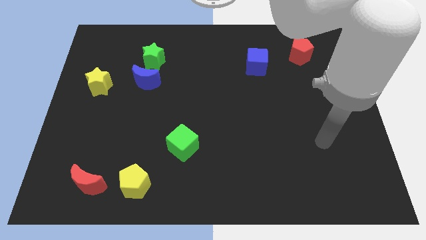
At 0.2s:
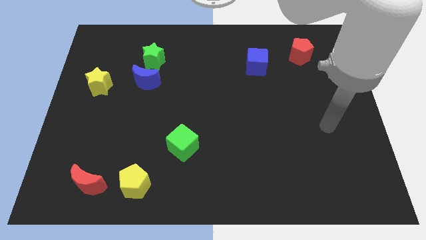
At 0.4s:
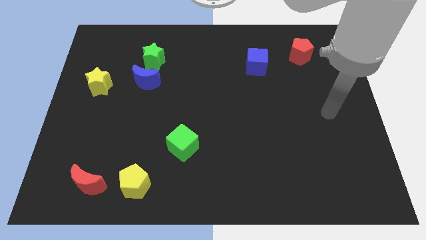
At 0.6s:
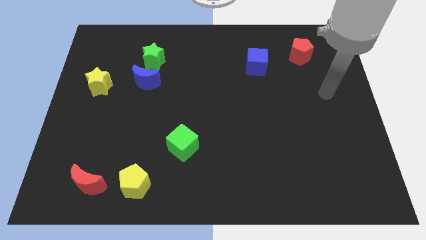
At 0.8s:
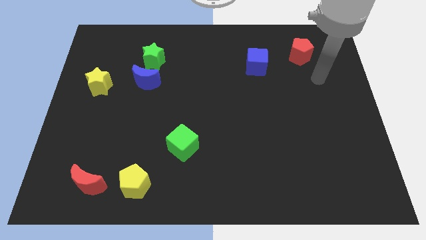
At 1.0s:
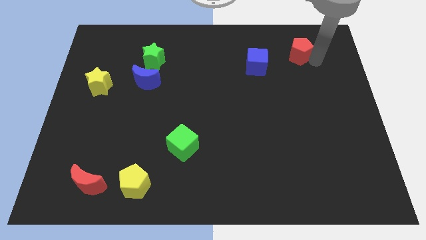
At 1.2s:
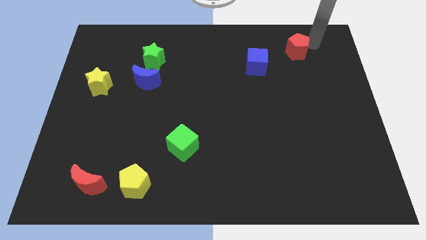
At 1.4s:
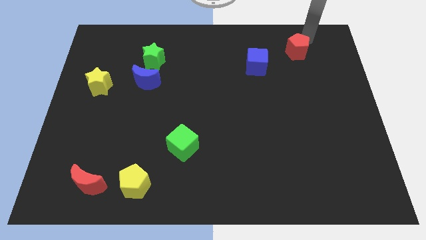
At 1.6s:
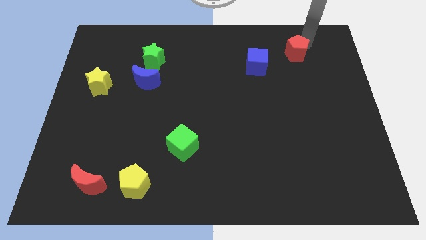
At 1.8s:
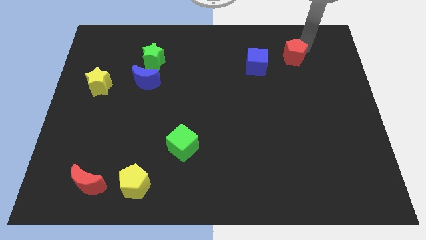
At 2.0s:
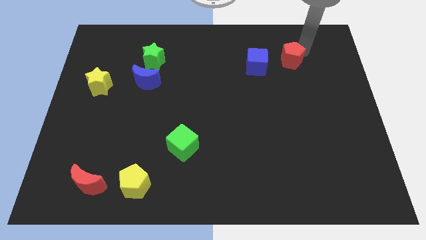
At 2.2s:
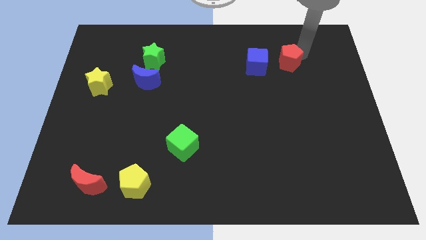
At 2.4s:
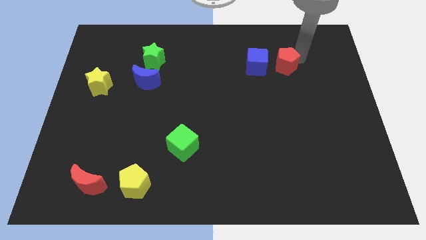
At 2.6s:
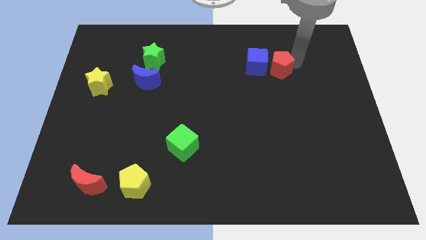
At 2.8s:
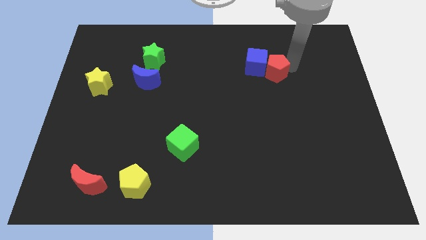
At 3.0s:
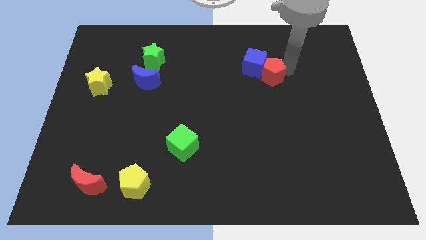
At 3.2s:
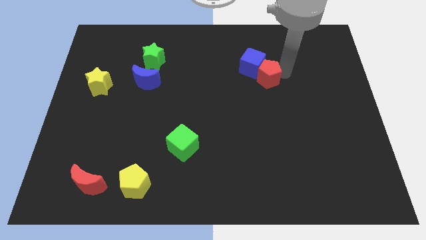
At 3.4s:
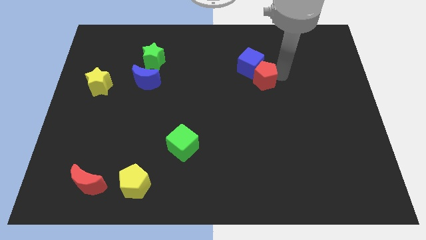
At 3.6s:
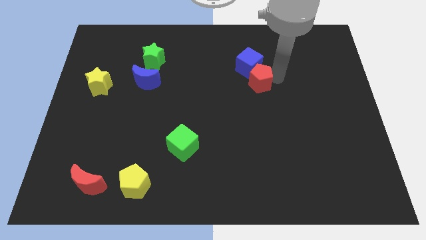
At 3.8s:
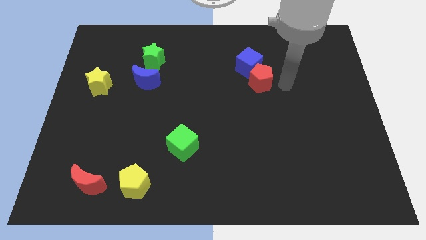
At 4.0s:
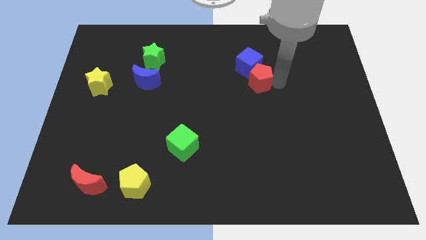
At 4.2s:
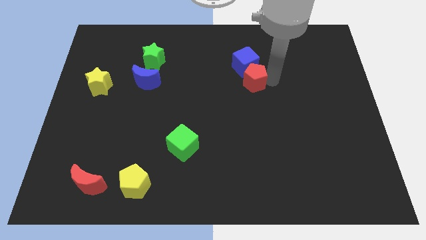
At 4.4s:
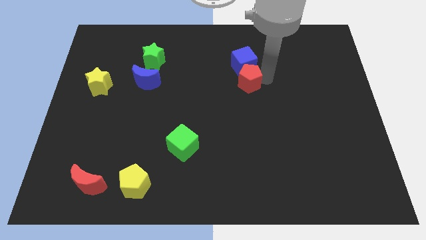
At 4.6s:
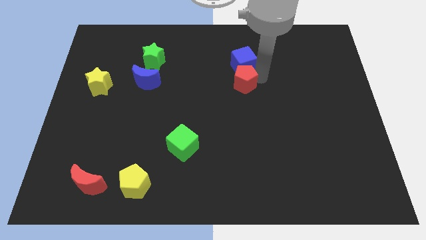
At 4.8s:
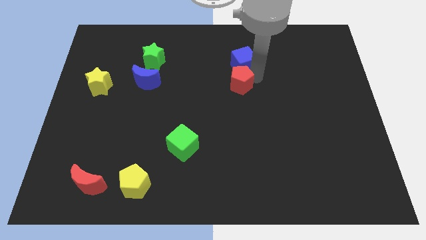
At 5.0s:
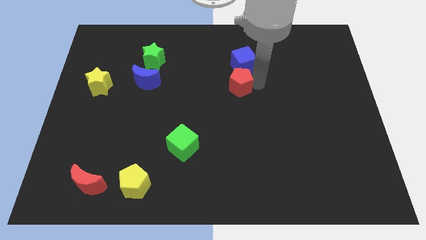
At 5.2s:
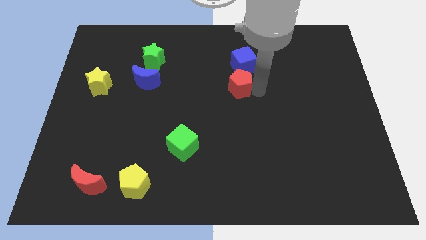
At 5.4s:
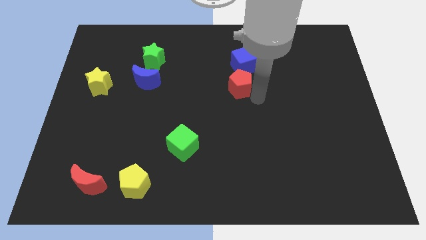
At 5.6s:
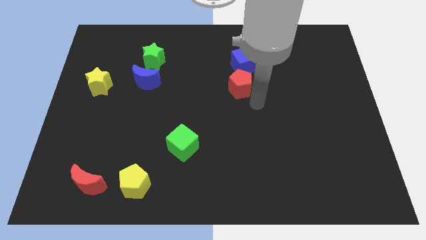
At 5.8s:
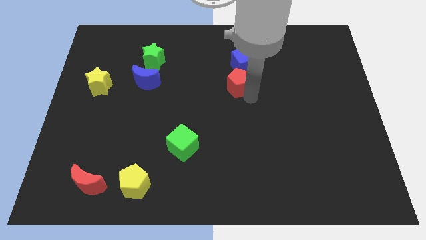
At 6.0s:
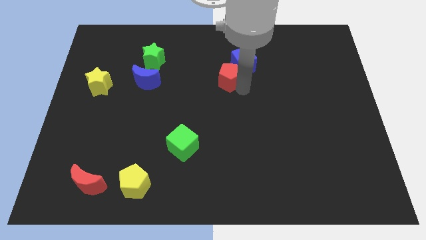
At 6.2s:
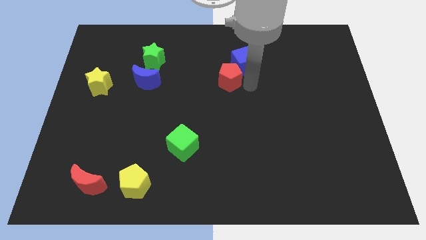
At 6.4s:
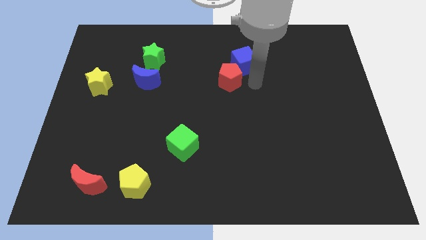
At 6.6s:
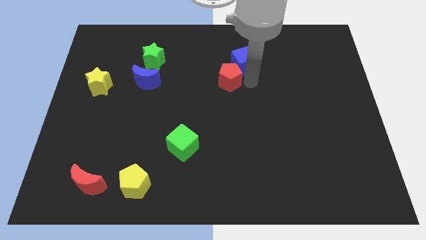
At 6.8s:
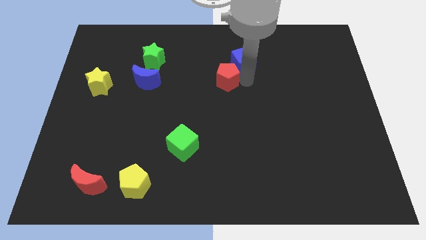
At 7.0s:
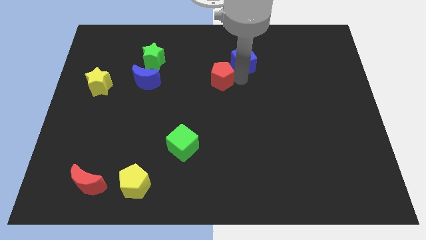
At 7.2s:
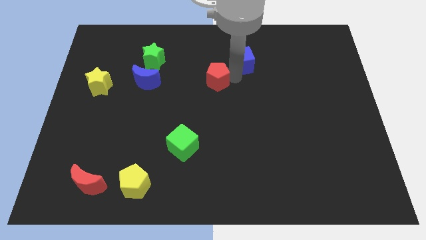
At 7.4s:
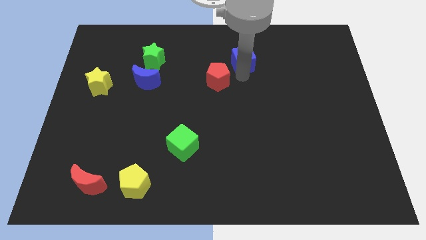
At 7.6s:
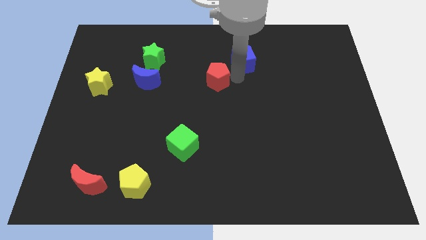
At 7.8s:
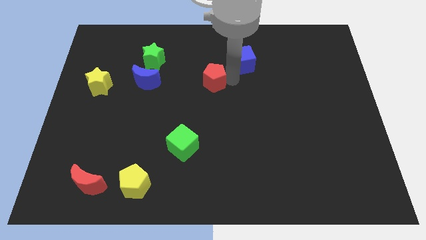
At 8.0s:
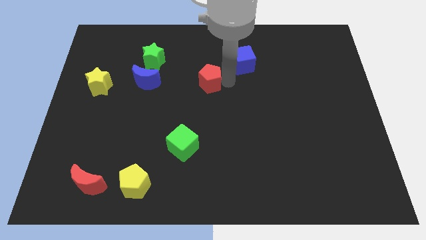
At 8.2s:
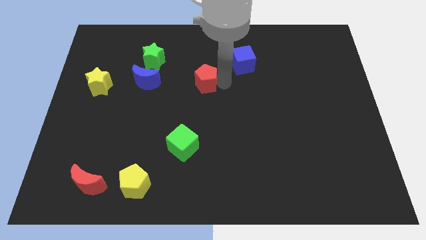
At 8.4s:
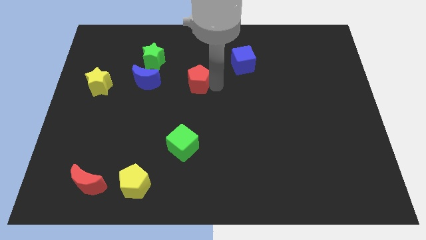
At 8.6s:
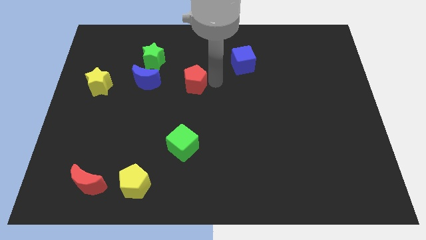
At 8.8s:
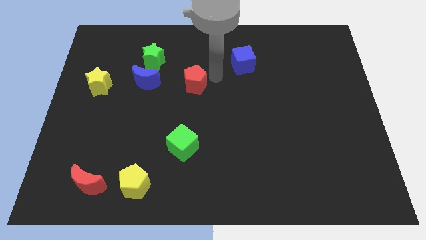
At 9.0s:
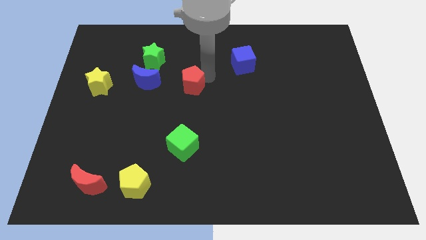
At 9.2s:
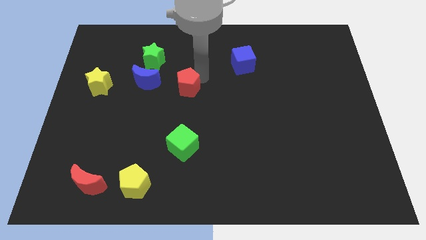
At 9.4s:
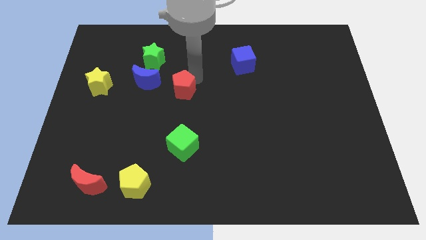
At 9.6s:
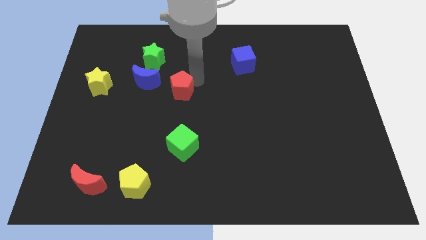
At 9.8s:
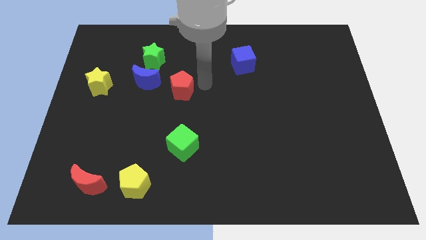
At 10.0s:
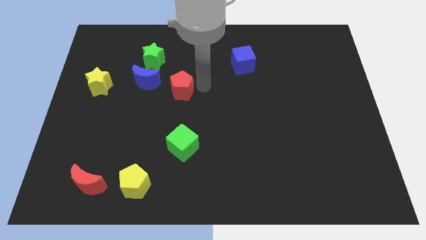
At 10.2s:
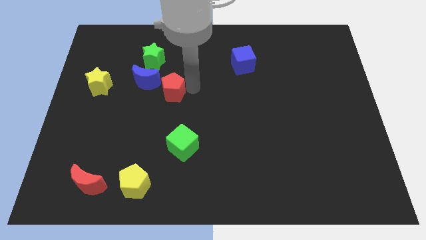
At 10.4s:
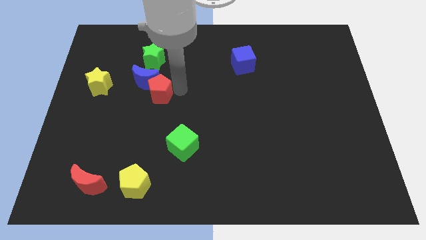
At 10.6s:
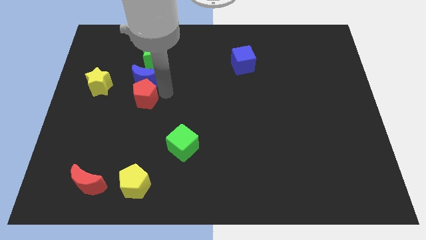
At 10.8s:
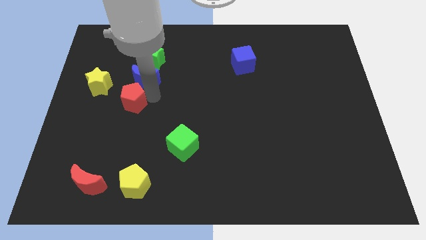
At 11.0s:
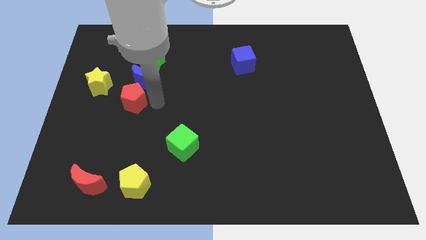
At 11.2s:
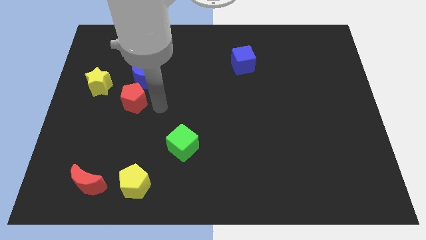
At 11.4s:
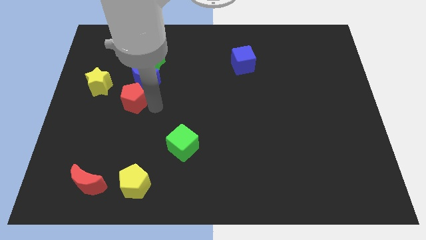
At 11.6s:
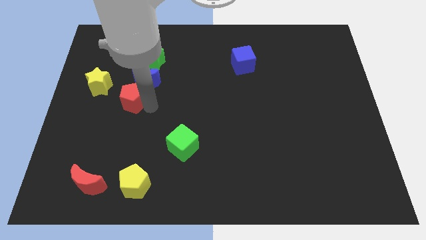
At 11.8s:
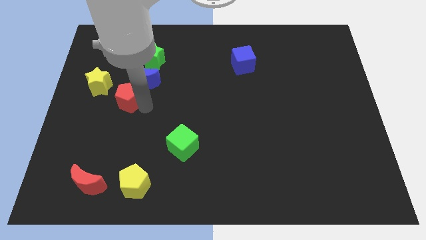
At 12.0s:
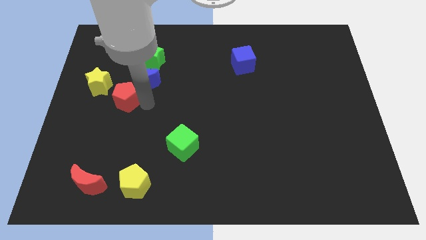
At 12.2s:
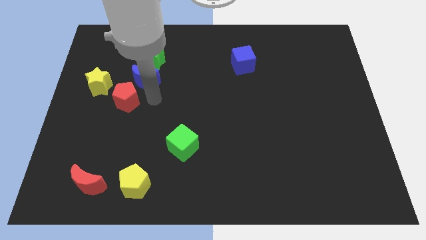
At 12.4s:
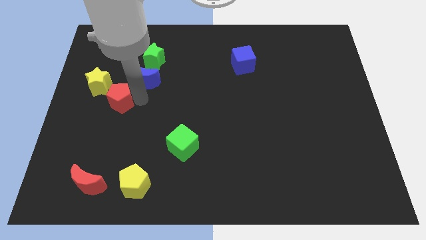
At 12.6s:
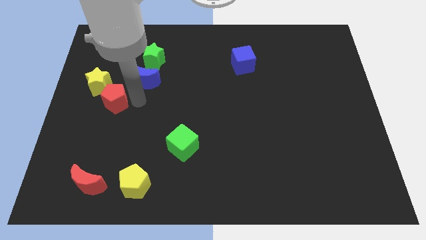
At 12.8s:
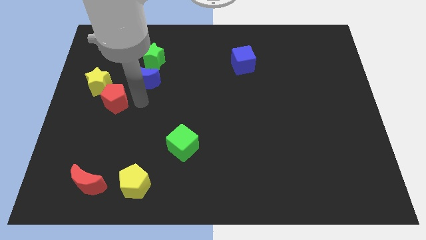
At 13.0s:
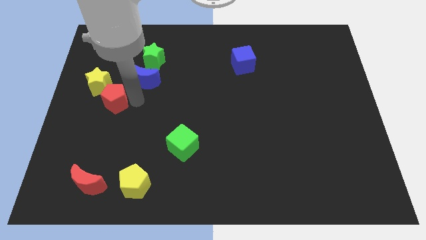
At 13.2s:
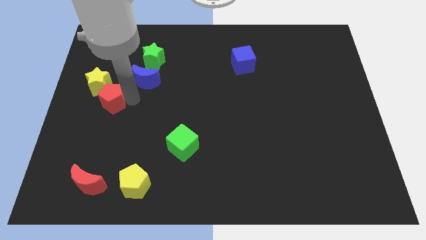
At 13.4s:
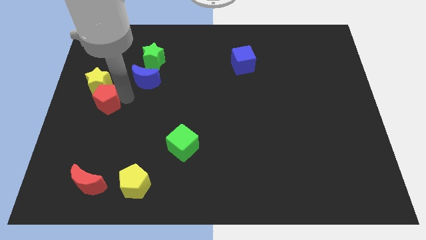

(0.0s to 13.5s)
put the red pentagon to the left side of the board
